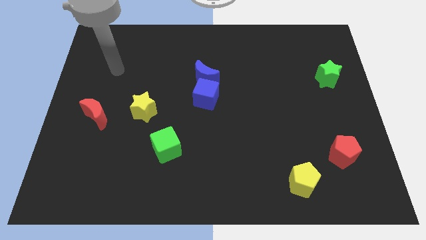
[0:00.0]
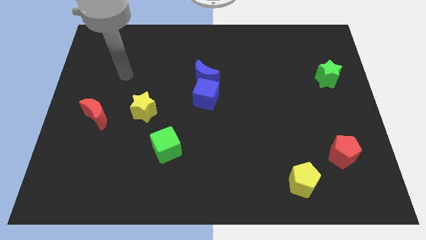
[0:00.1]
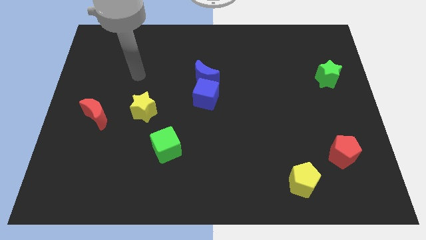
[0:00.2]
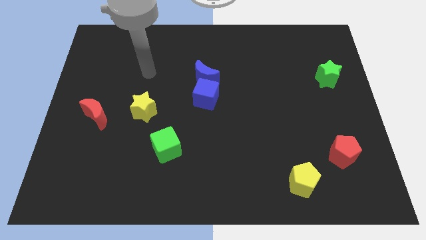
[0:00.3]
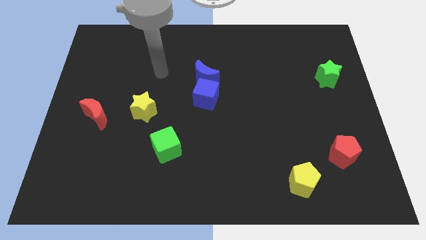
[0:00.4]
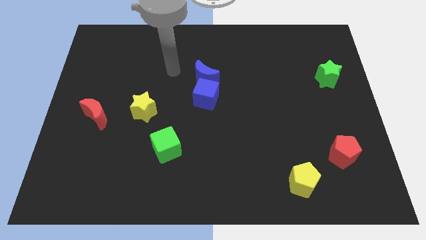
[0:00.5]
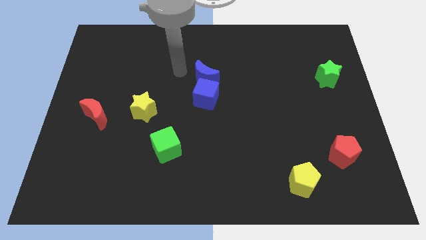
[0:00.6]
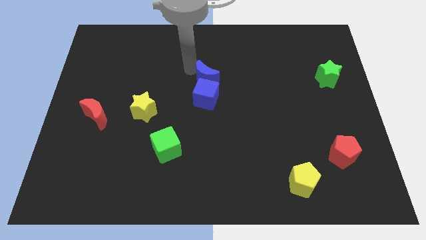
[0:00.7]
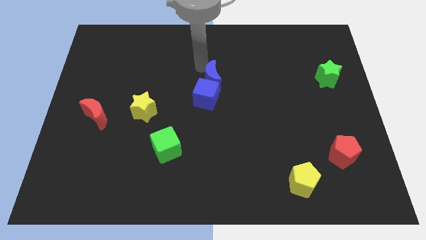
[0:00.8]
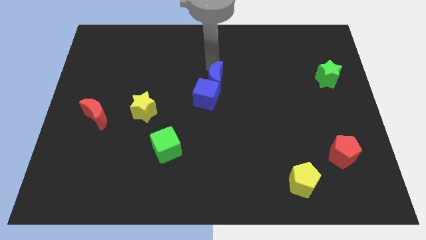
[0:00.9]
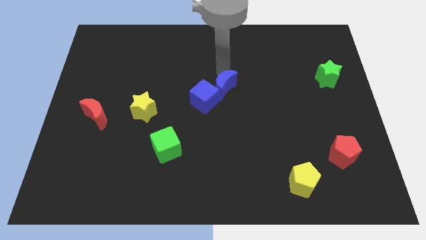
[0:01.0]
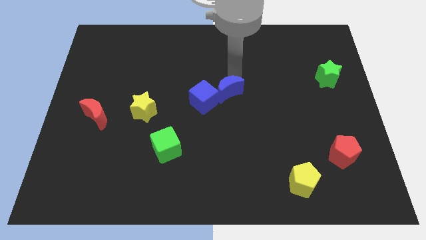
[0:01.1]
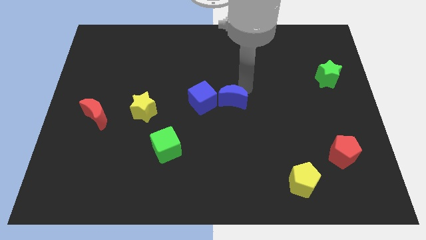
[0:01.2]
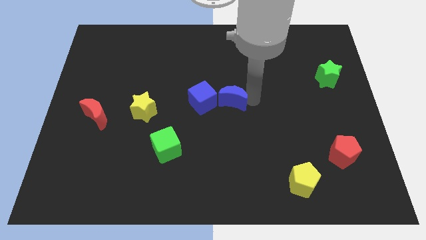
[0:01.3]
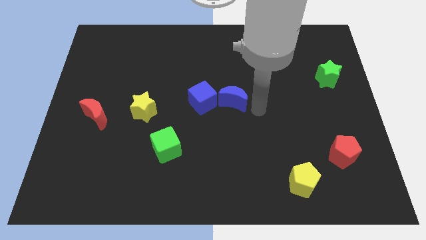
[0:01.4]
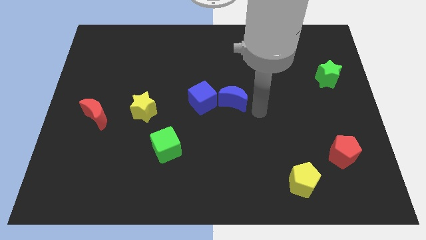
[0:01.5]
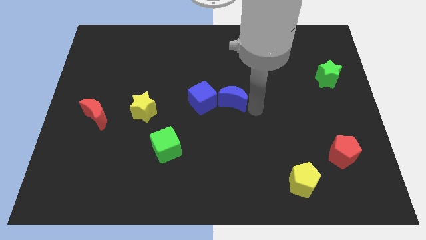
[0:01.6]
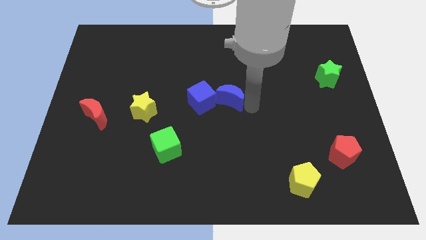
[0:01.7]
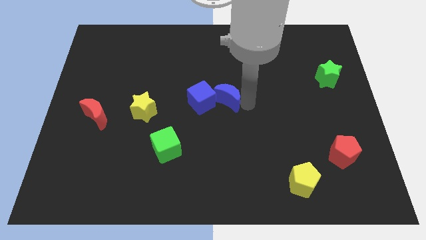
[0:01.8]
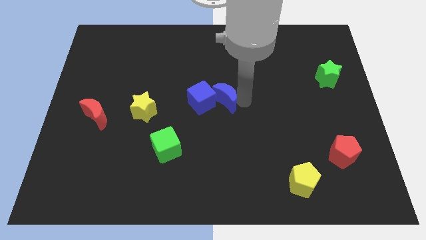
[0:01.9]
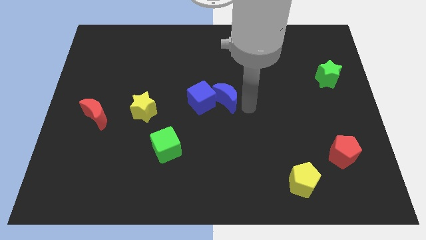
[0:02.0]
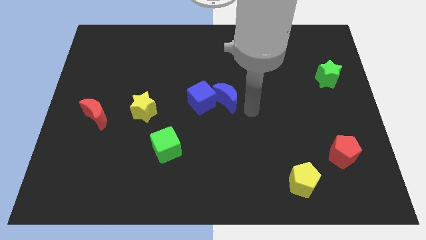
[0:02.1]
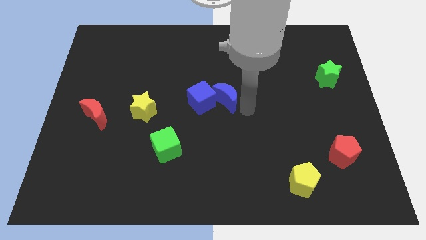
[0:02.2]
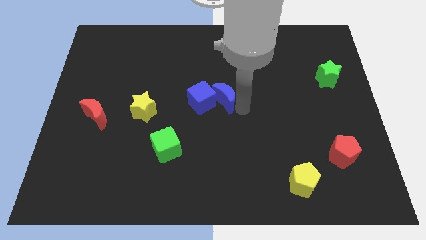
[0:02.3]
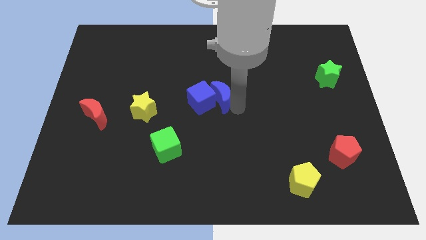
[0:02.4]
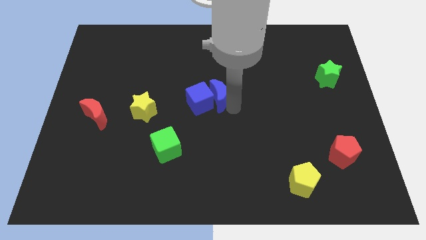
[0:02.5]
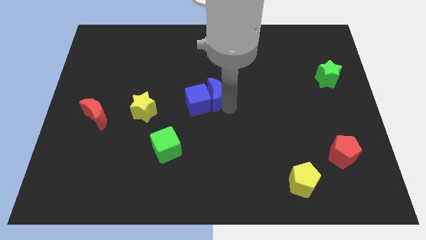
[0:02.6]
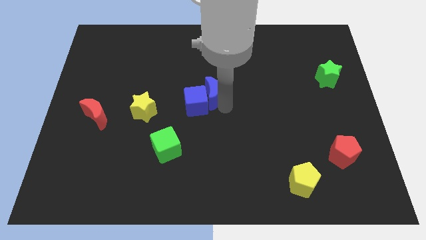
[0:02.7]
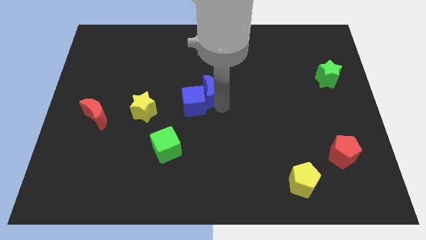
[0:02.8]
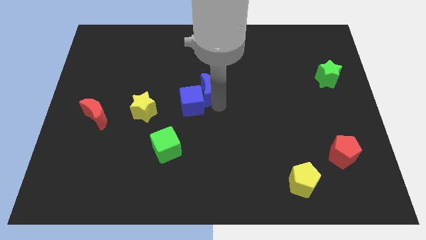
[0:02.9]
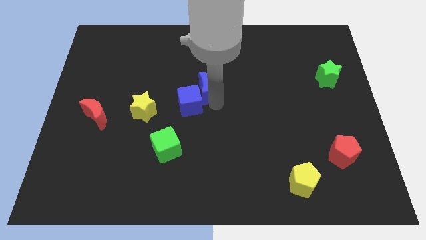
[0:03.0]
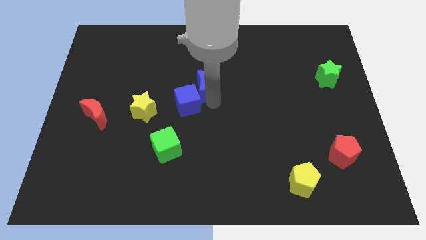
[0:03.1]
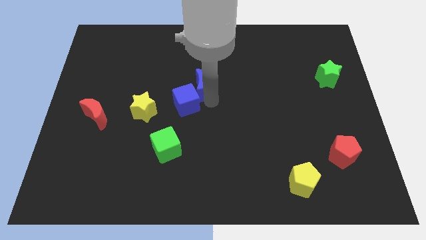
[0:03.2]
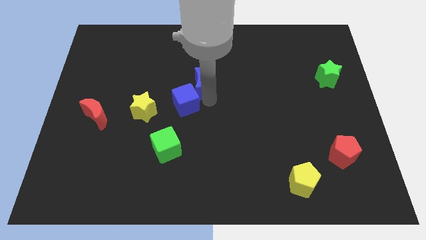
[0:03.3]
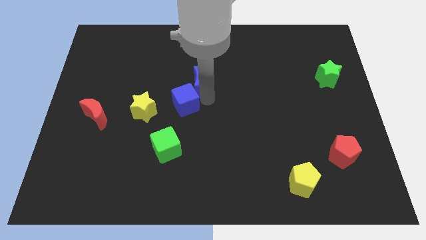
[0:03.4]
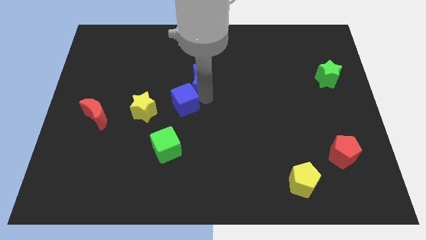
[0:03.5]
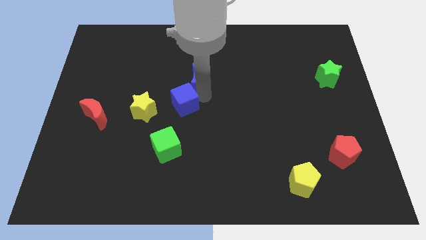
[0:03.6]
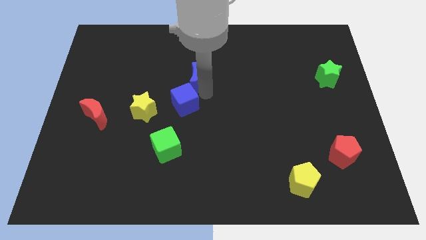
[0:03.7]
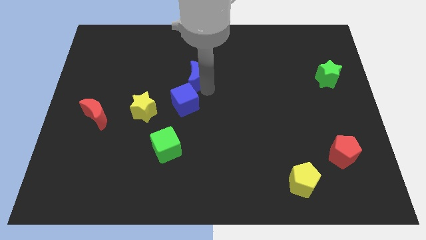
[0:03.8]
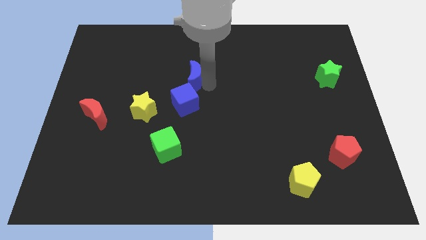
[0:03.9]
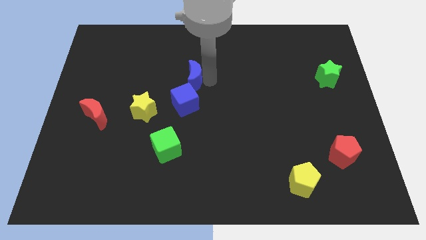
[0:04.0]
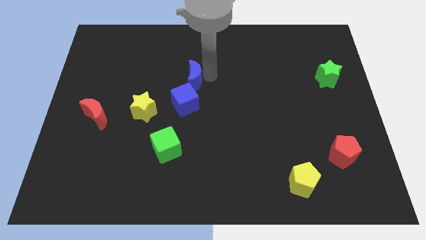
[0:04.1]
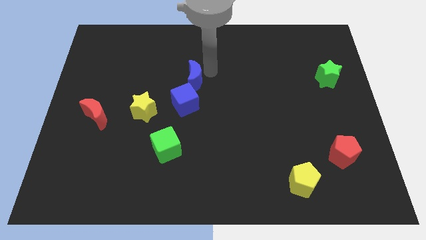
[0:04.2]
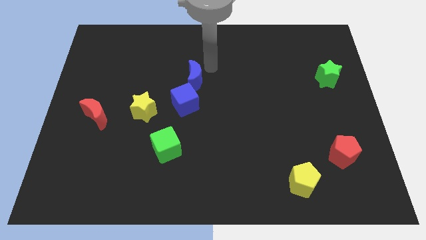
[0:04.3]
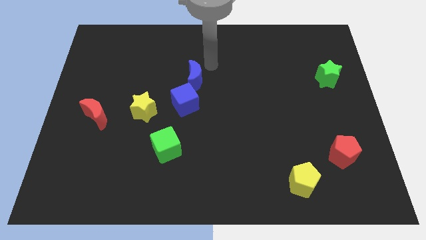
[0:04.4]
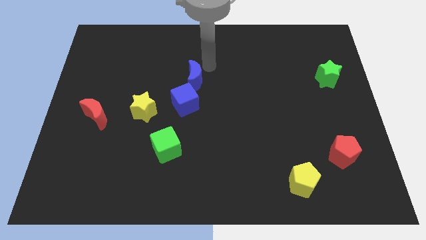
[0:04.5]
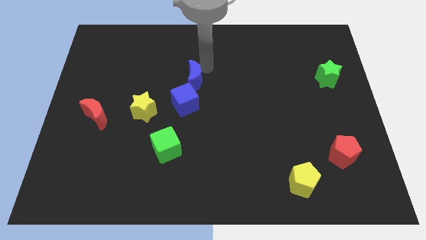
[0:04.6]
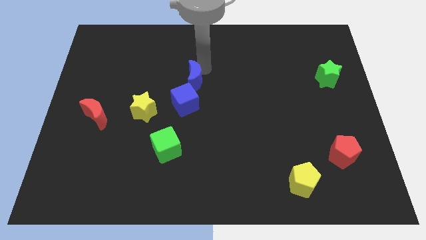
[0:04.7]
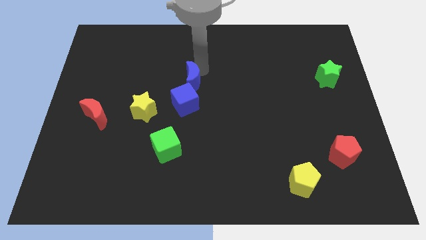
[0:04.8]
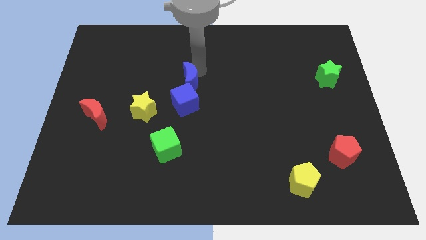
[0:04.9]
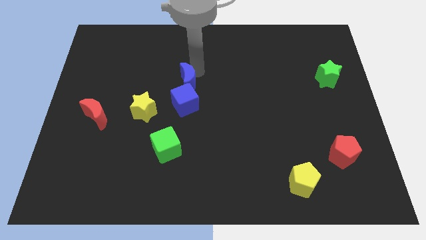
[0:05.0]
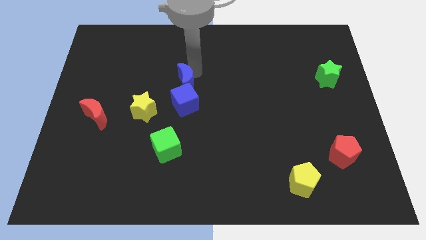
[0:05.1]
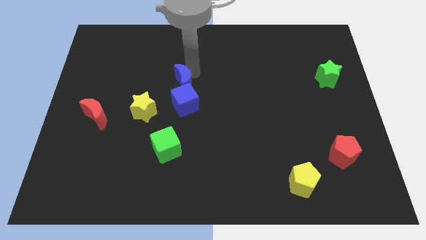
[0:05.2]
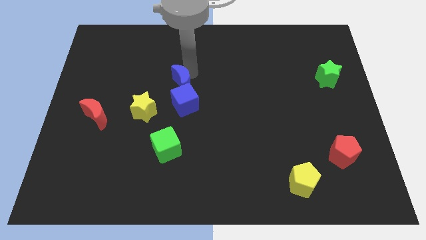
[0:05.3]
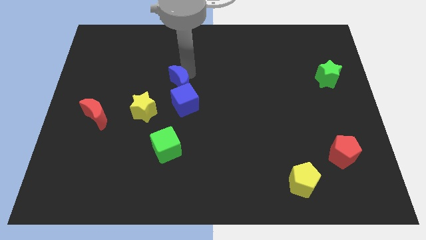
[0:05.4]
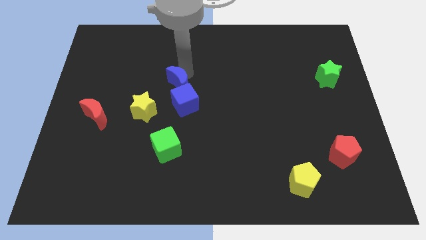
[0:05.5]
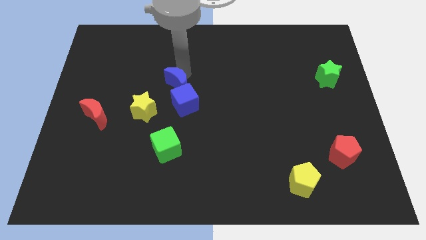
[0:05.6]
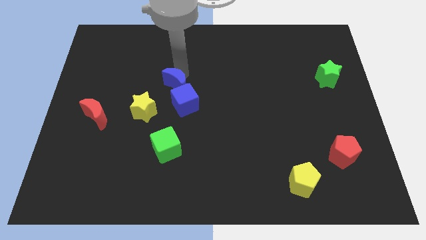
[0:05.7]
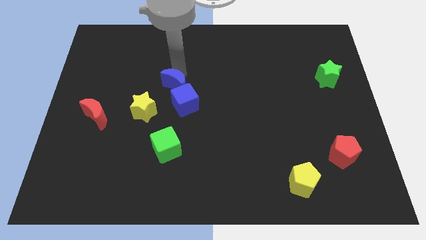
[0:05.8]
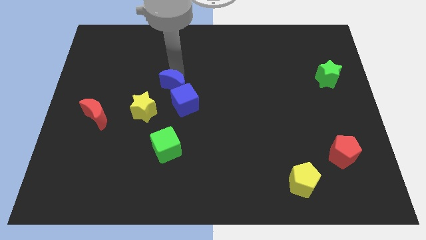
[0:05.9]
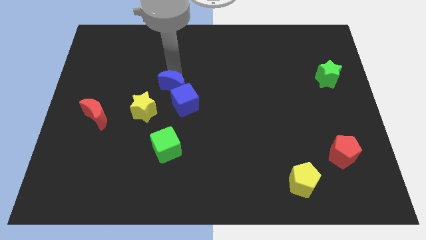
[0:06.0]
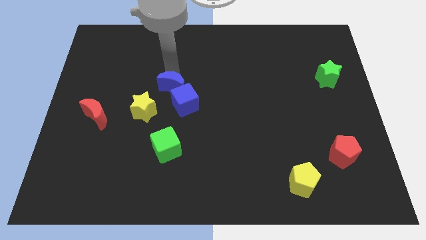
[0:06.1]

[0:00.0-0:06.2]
push the blue moon a little downwards and to the left diagonally

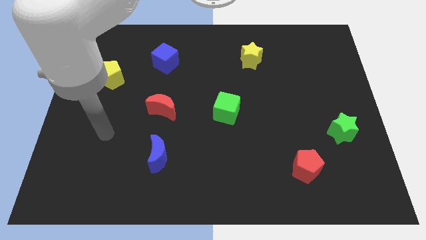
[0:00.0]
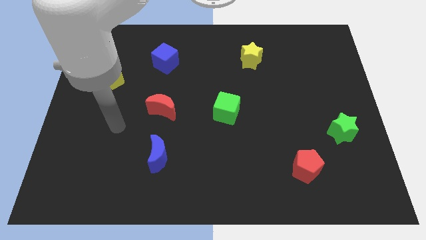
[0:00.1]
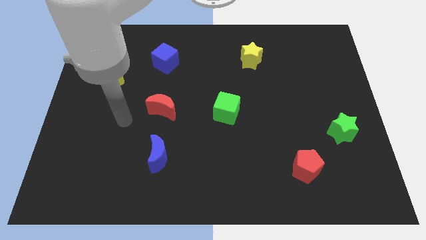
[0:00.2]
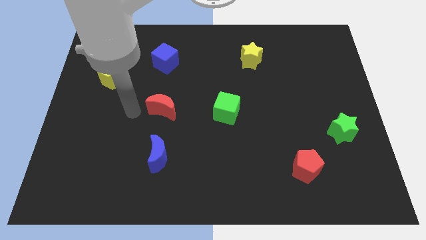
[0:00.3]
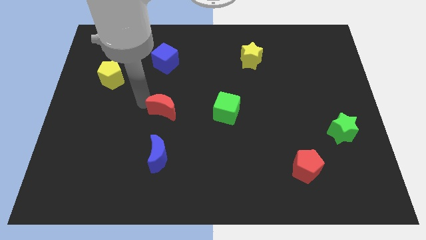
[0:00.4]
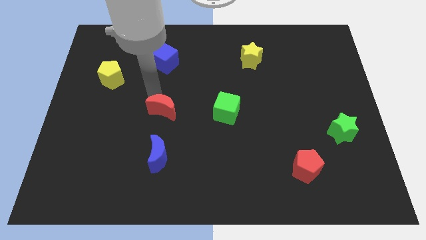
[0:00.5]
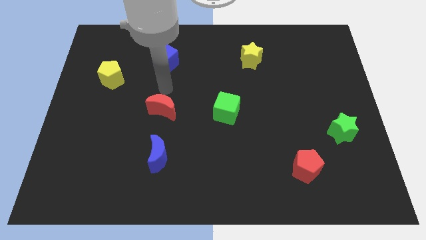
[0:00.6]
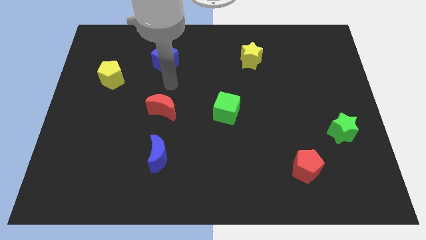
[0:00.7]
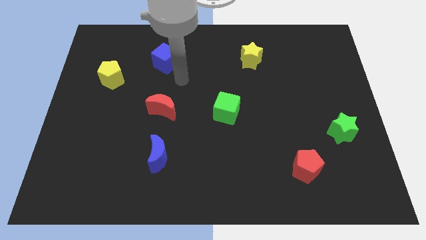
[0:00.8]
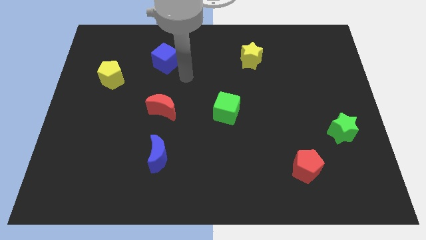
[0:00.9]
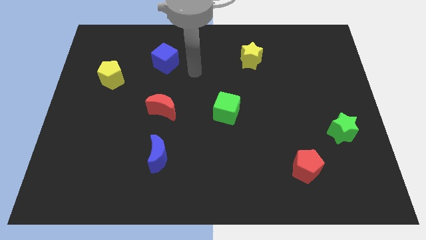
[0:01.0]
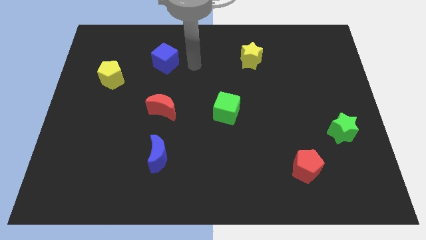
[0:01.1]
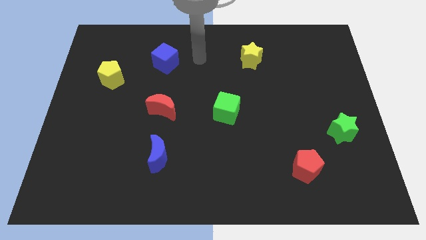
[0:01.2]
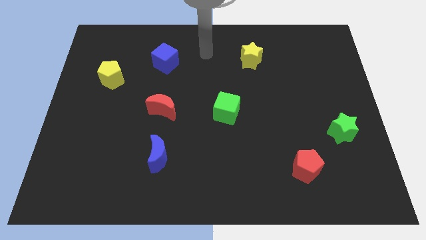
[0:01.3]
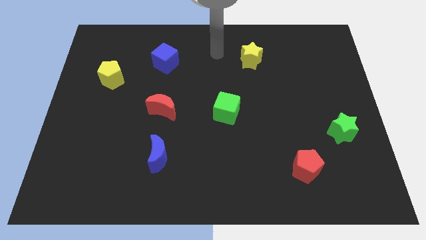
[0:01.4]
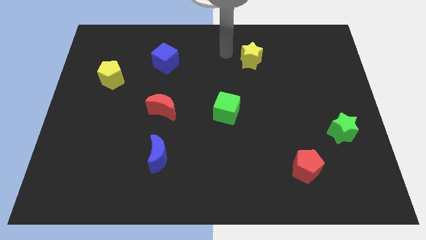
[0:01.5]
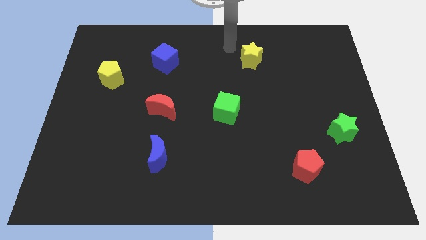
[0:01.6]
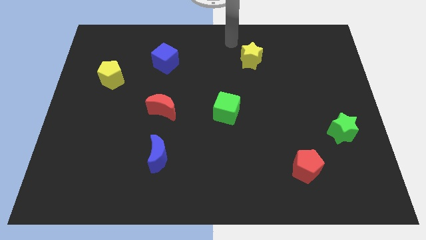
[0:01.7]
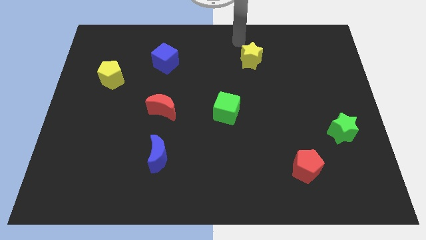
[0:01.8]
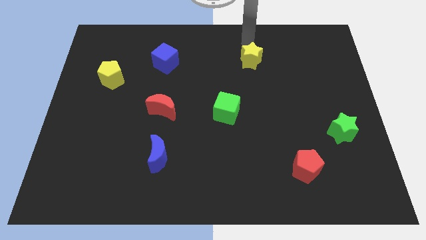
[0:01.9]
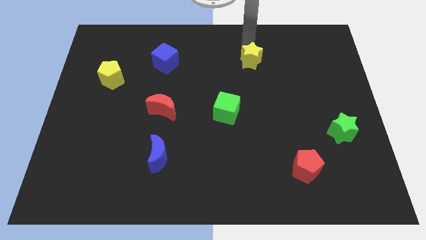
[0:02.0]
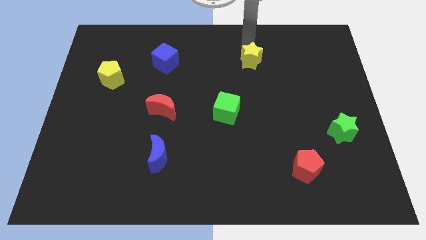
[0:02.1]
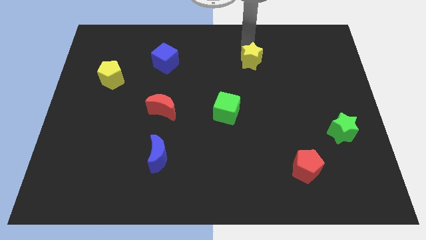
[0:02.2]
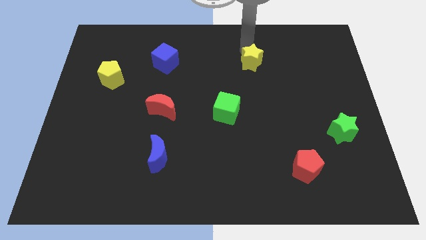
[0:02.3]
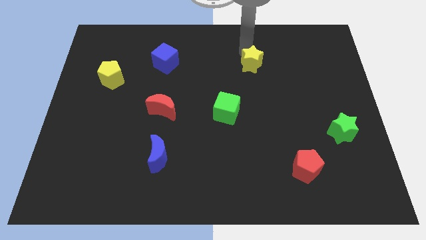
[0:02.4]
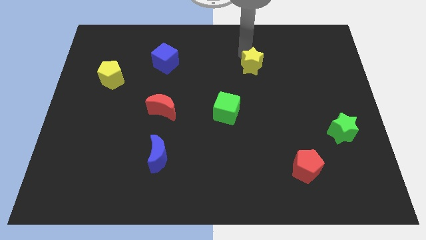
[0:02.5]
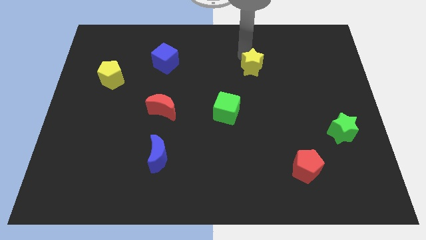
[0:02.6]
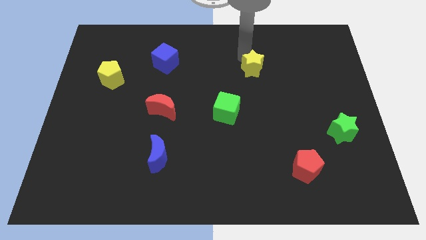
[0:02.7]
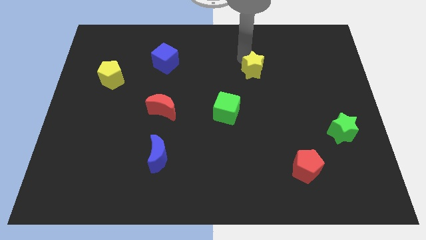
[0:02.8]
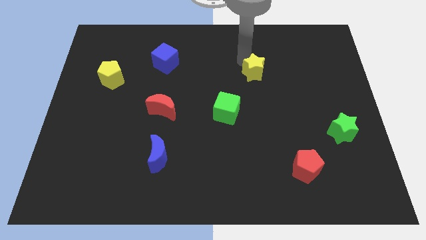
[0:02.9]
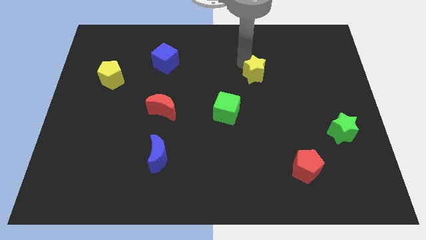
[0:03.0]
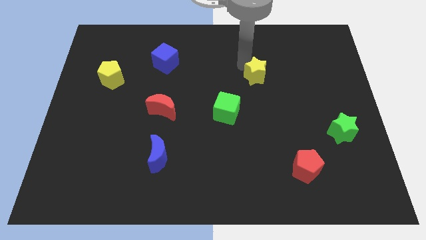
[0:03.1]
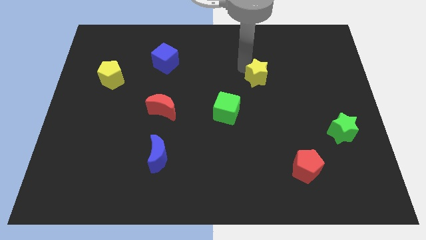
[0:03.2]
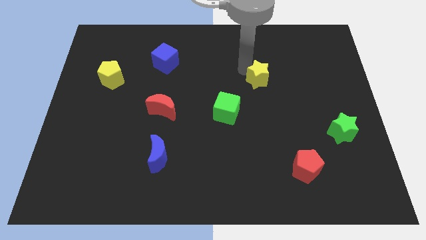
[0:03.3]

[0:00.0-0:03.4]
slightly slide the yellow star downwards
